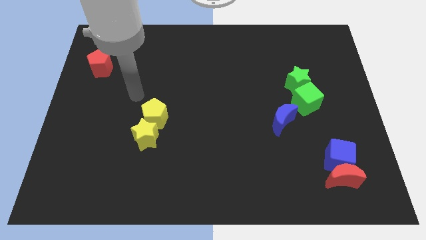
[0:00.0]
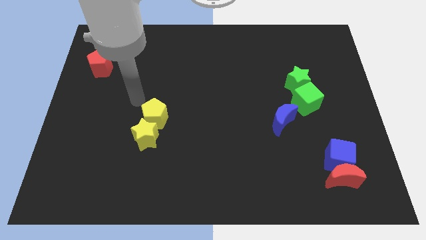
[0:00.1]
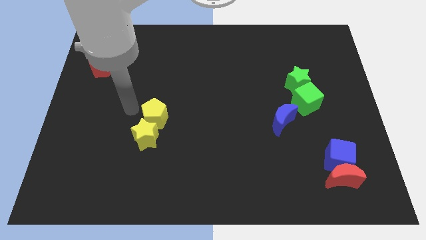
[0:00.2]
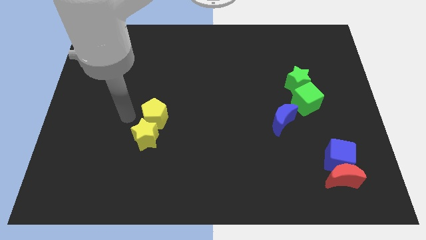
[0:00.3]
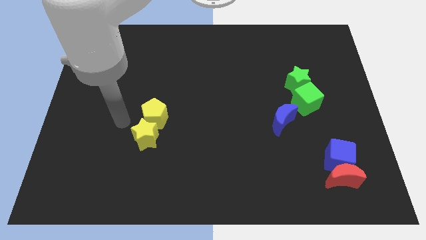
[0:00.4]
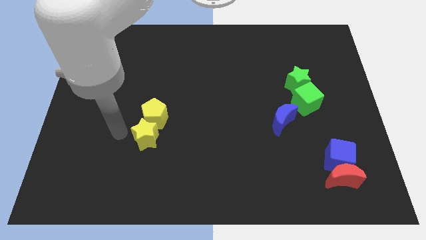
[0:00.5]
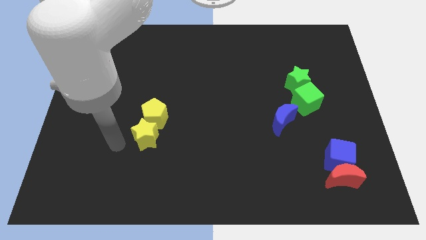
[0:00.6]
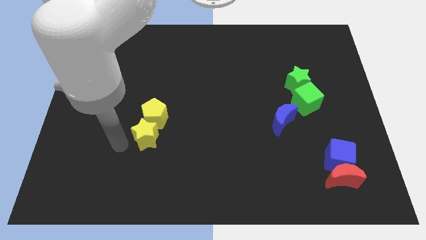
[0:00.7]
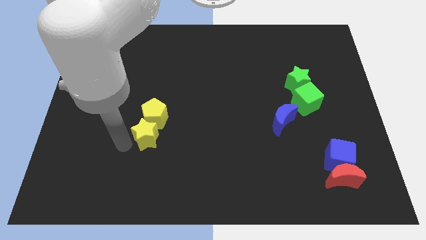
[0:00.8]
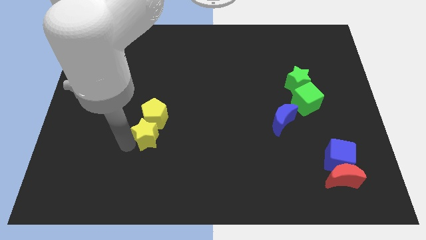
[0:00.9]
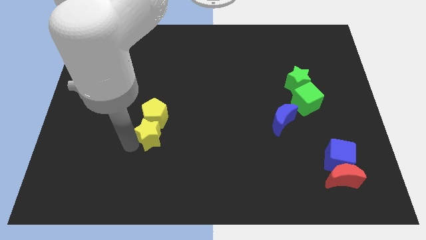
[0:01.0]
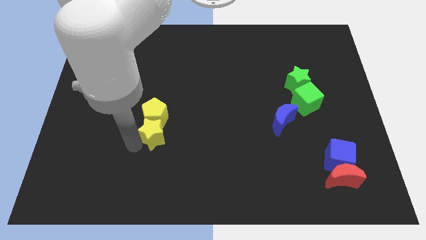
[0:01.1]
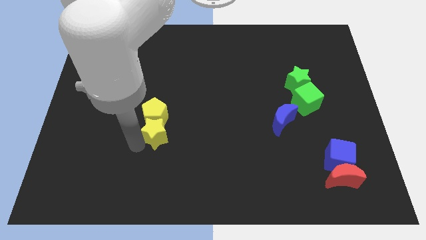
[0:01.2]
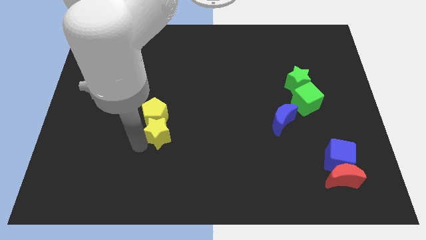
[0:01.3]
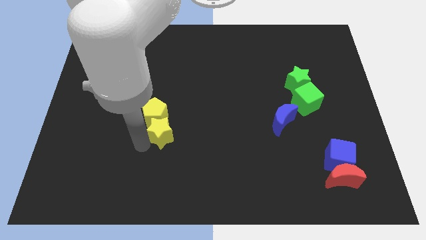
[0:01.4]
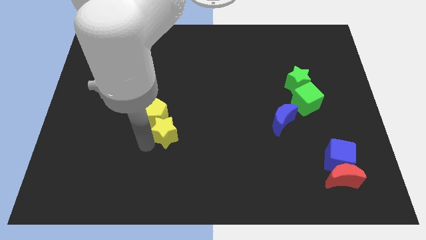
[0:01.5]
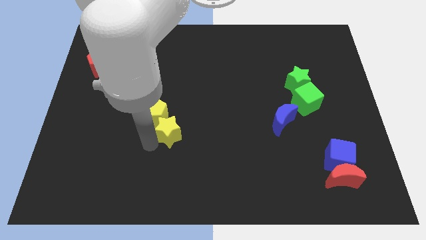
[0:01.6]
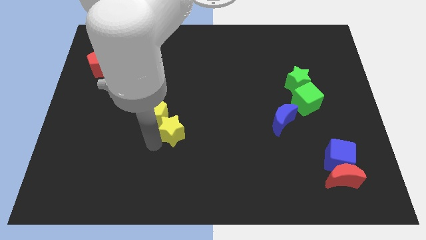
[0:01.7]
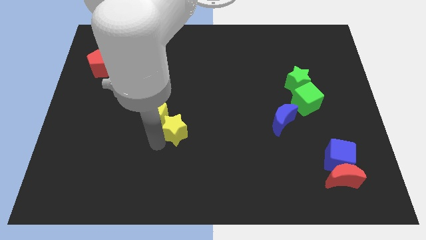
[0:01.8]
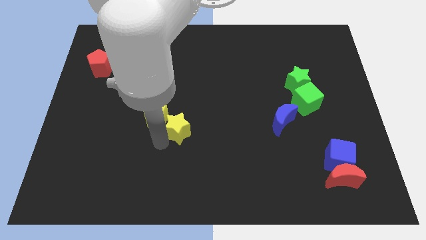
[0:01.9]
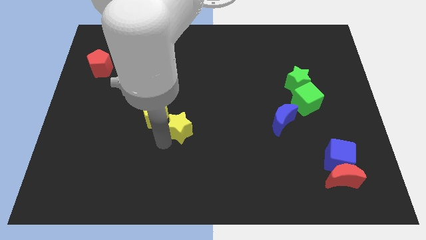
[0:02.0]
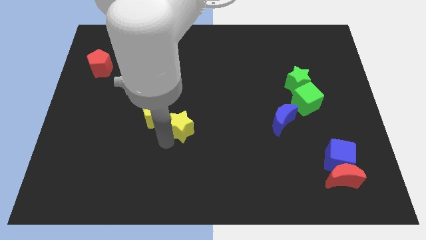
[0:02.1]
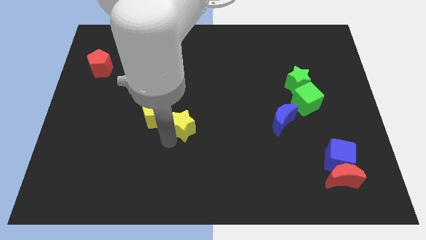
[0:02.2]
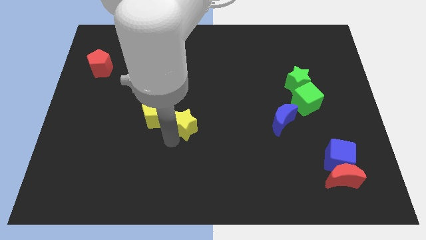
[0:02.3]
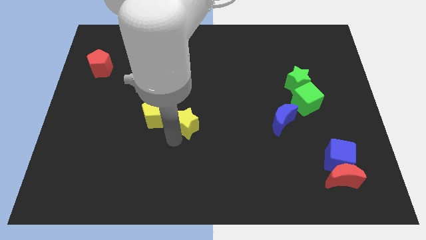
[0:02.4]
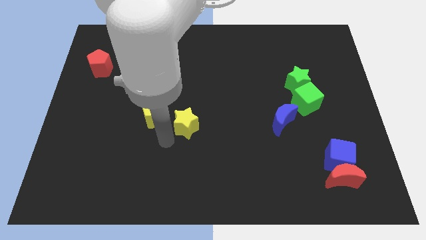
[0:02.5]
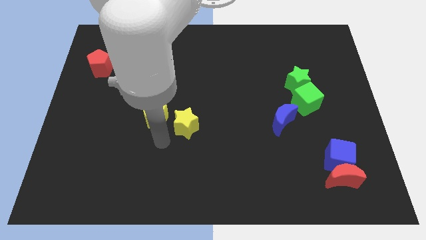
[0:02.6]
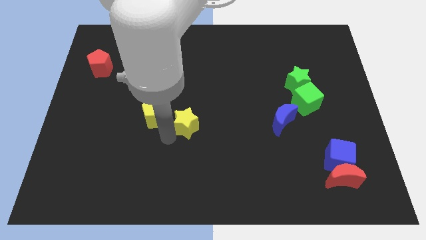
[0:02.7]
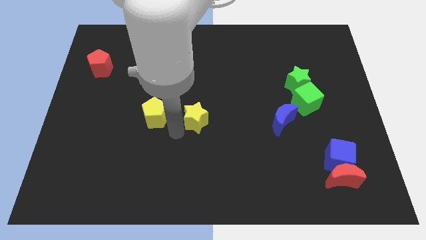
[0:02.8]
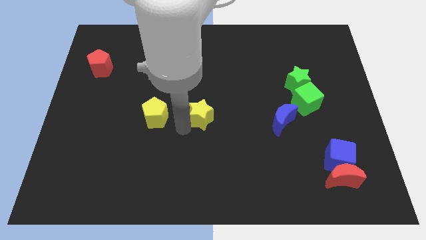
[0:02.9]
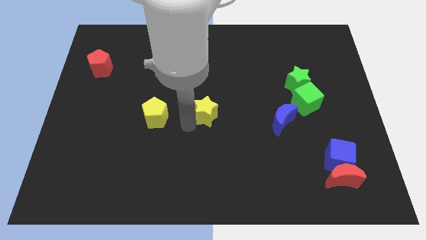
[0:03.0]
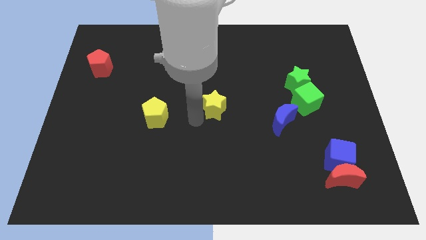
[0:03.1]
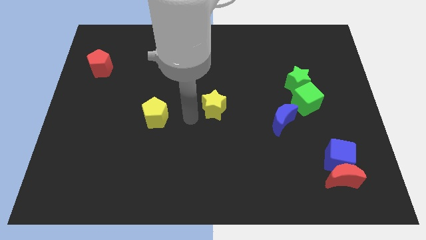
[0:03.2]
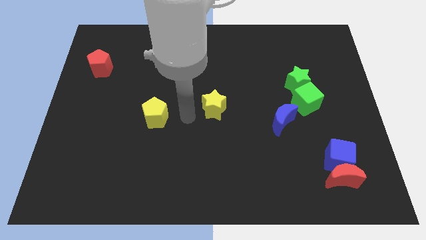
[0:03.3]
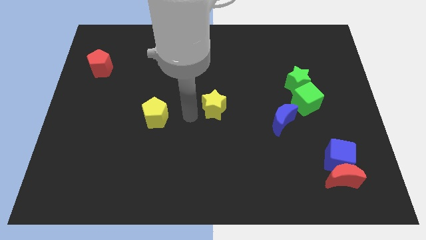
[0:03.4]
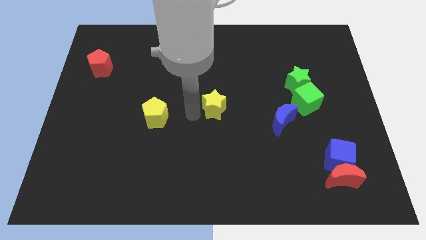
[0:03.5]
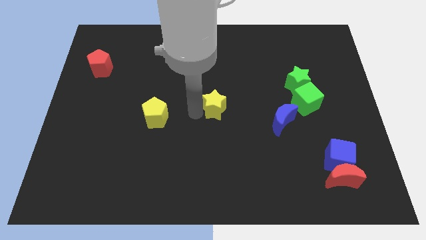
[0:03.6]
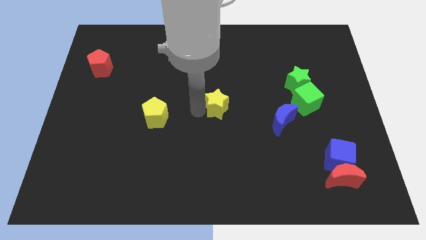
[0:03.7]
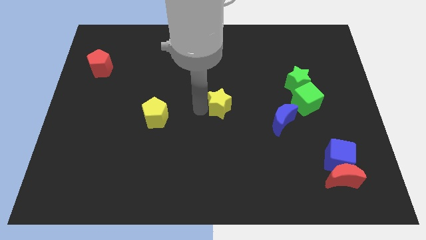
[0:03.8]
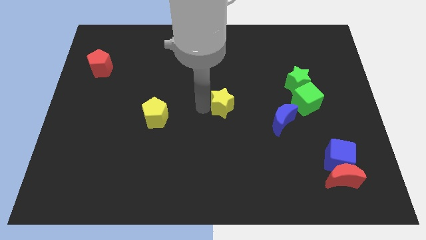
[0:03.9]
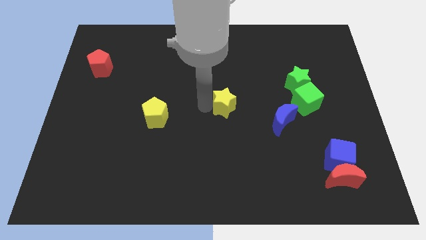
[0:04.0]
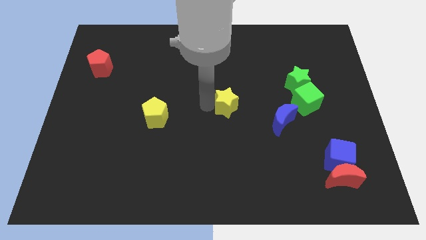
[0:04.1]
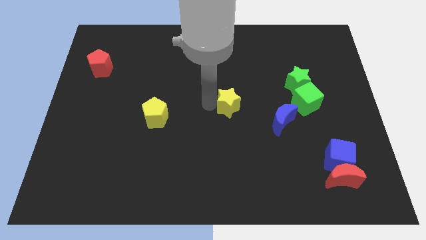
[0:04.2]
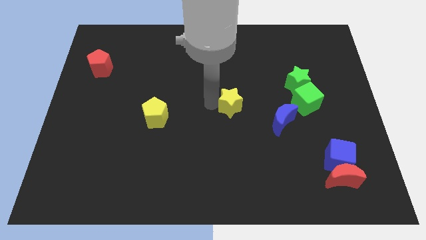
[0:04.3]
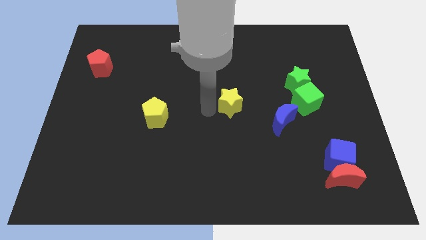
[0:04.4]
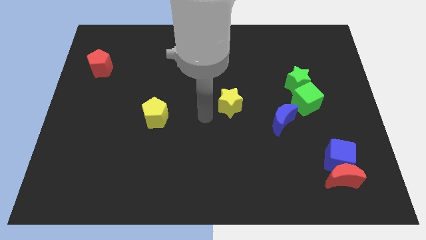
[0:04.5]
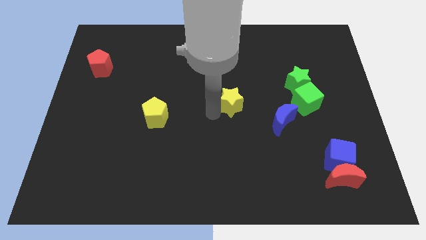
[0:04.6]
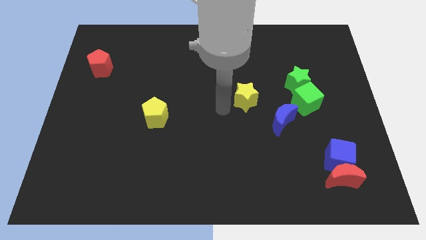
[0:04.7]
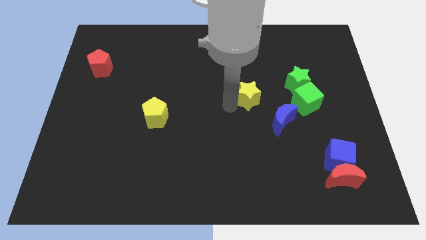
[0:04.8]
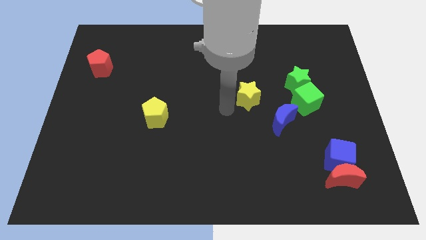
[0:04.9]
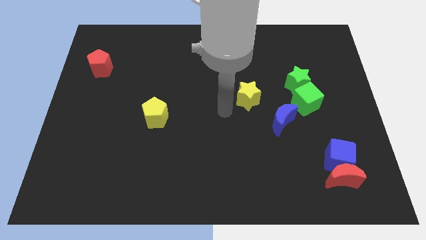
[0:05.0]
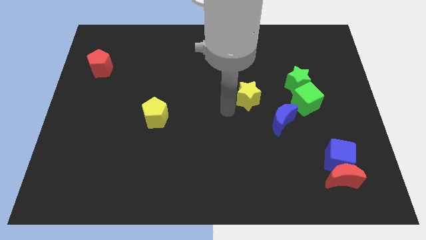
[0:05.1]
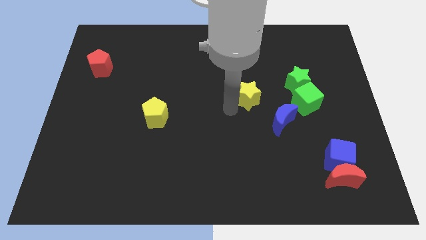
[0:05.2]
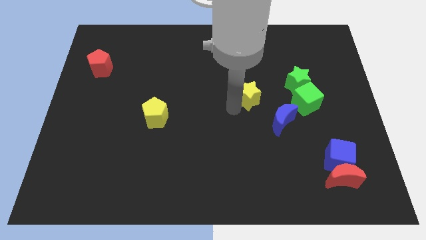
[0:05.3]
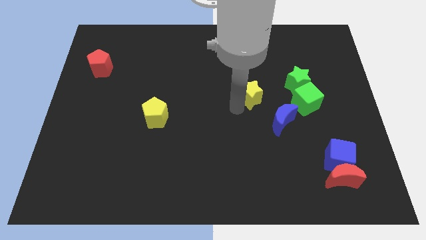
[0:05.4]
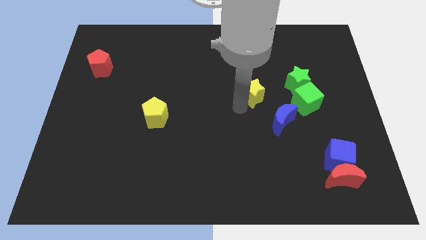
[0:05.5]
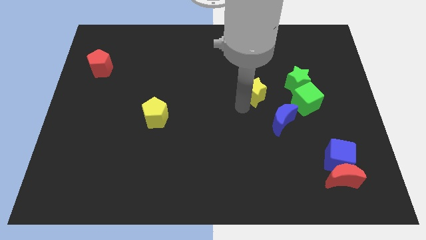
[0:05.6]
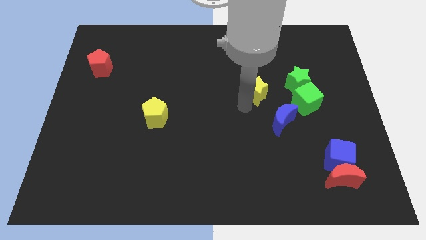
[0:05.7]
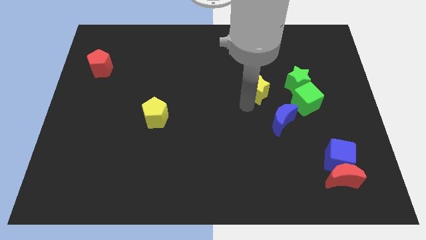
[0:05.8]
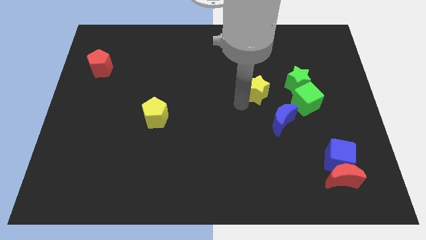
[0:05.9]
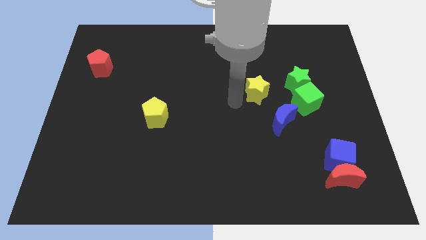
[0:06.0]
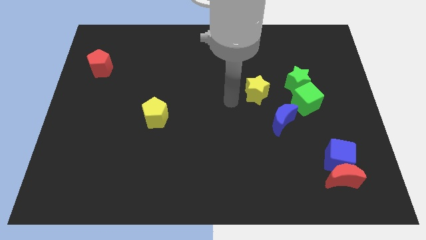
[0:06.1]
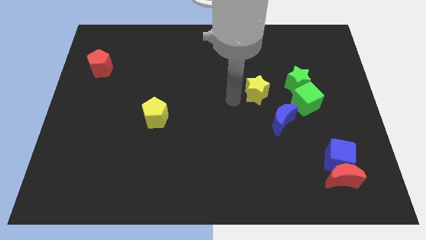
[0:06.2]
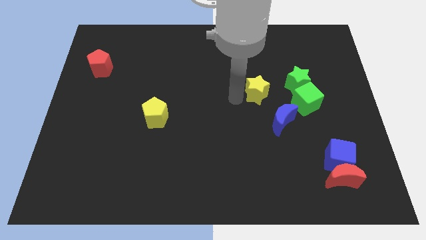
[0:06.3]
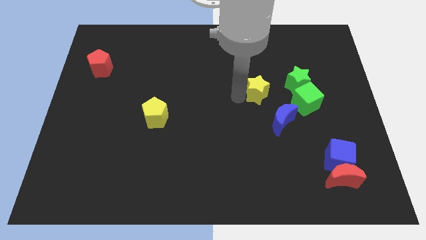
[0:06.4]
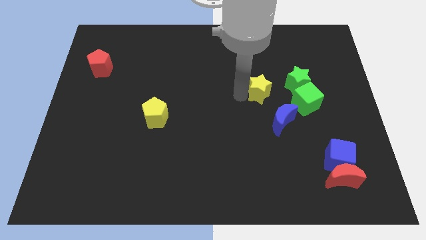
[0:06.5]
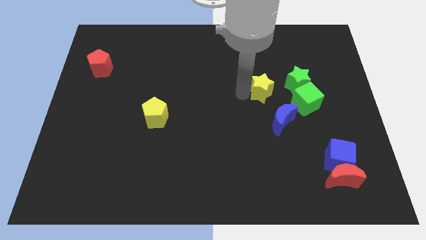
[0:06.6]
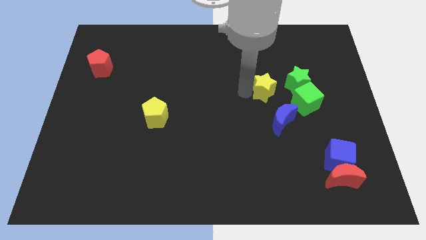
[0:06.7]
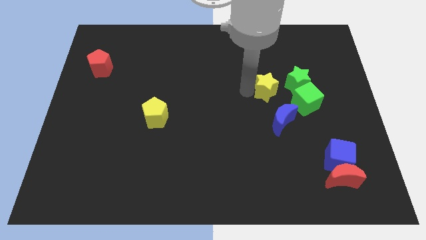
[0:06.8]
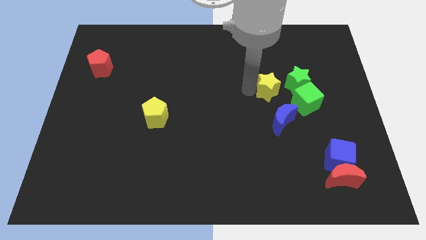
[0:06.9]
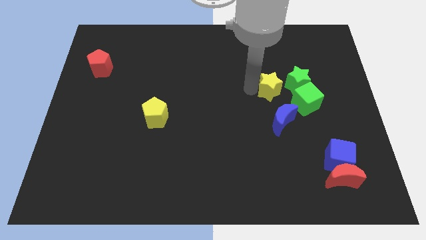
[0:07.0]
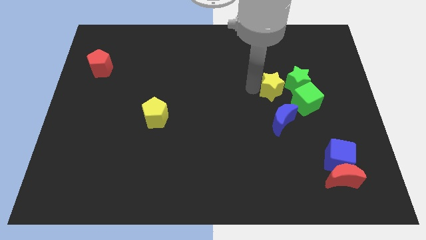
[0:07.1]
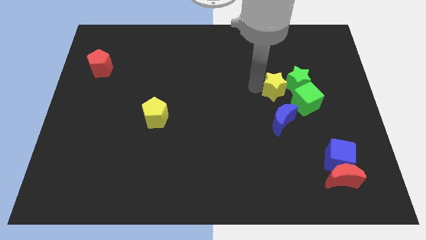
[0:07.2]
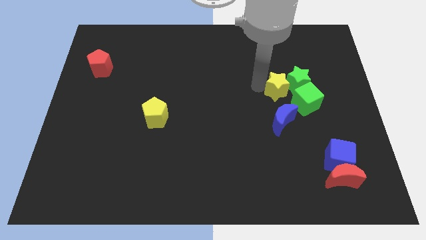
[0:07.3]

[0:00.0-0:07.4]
slide the yellow star next to the green star
